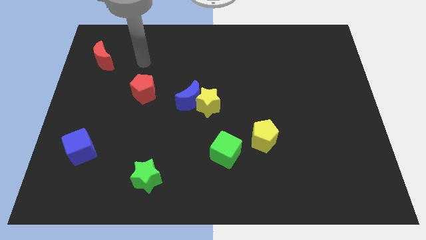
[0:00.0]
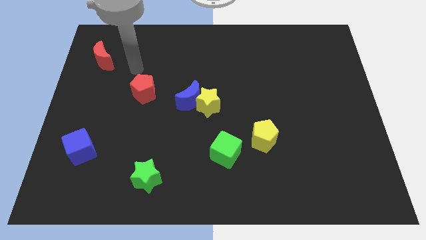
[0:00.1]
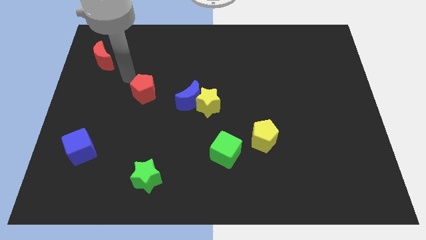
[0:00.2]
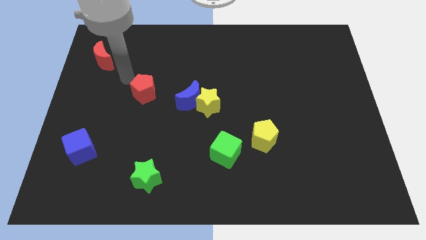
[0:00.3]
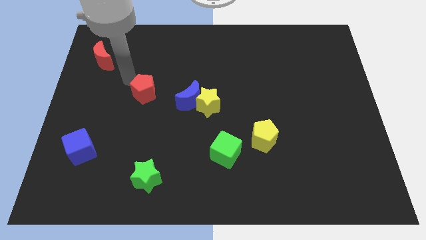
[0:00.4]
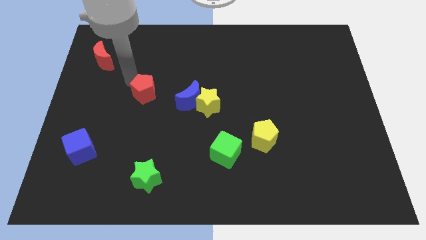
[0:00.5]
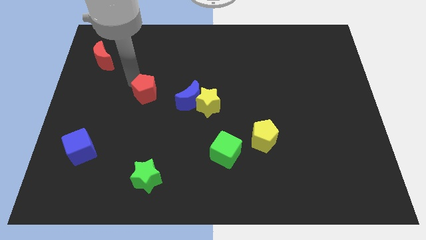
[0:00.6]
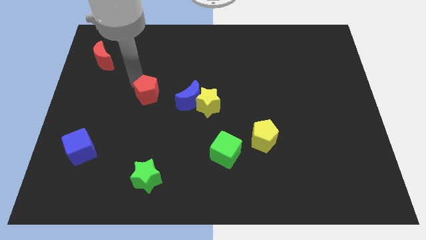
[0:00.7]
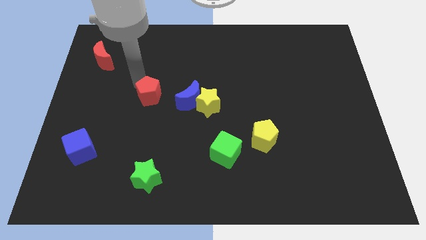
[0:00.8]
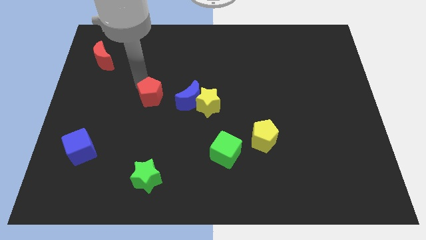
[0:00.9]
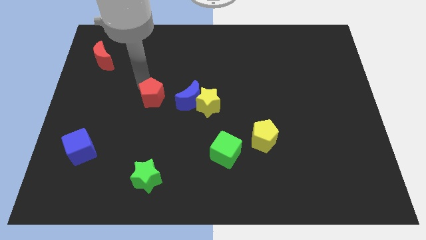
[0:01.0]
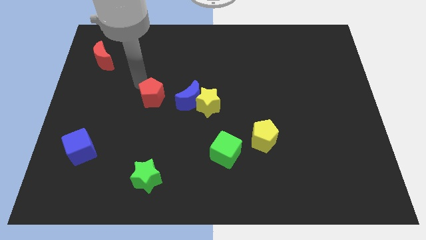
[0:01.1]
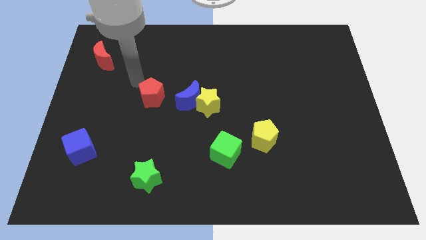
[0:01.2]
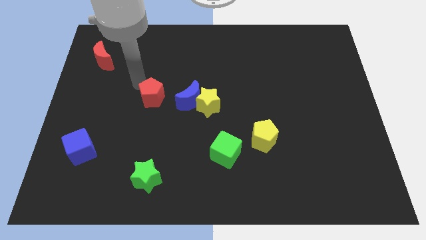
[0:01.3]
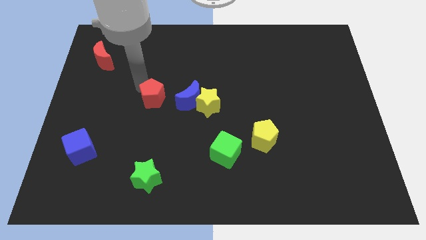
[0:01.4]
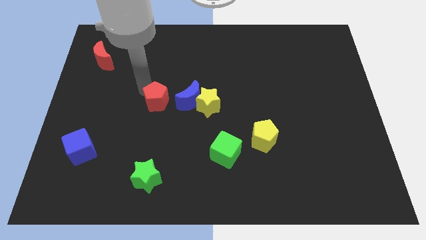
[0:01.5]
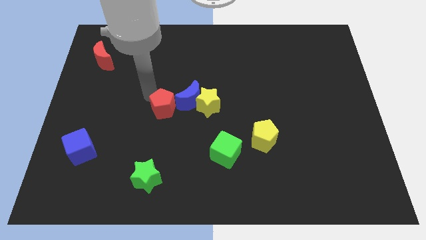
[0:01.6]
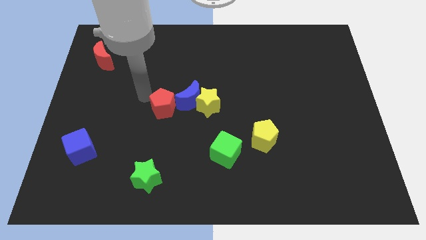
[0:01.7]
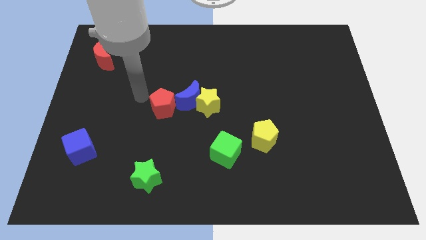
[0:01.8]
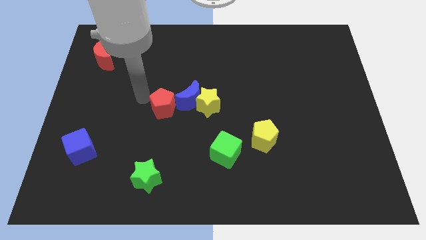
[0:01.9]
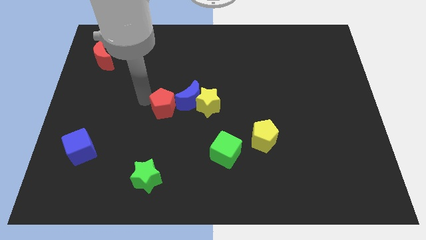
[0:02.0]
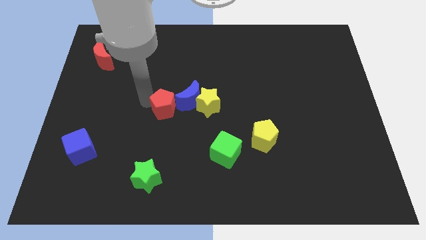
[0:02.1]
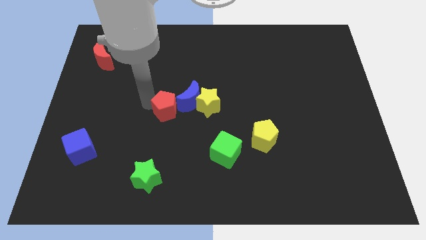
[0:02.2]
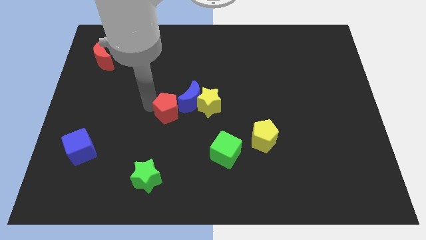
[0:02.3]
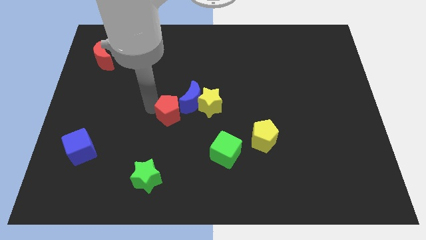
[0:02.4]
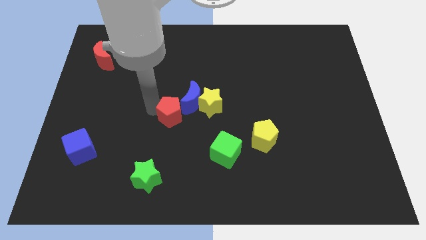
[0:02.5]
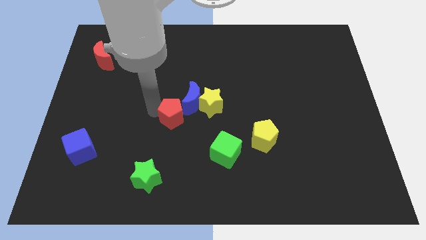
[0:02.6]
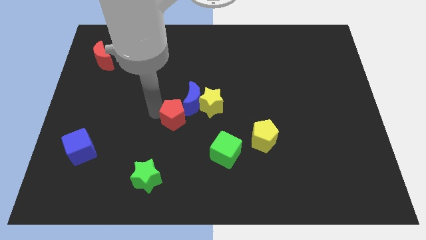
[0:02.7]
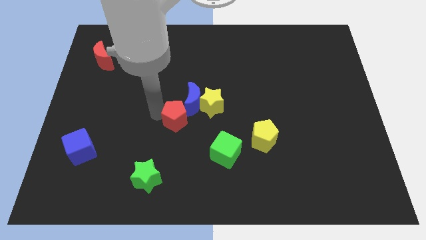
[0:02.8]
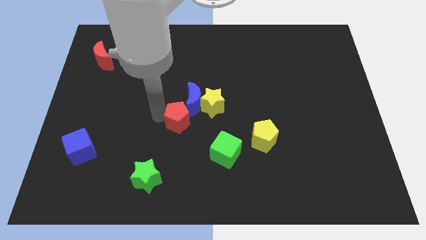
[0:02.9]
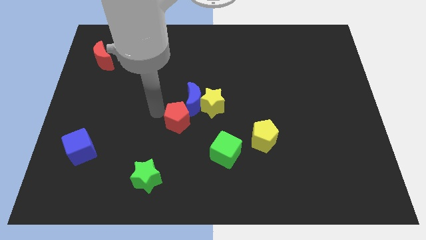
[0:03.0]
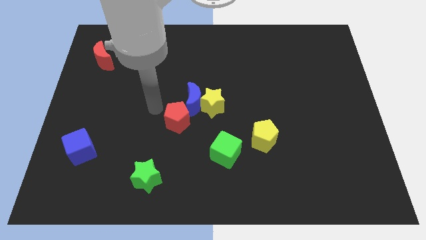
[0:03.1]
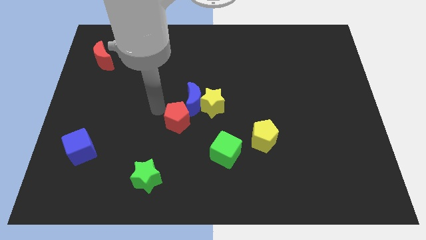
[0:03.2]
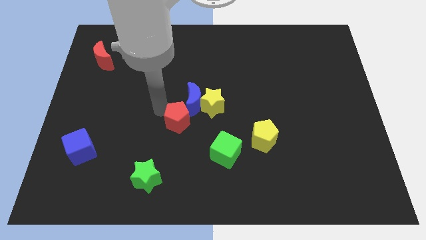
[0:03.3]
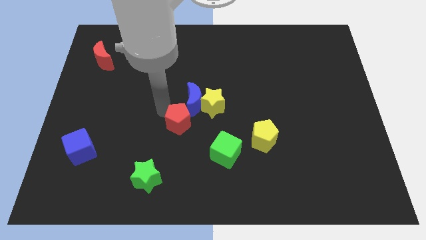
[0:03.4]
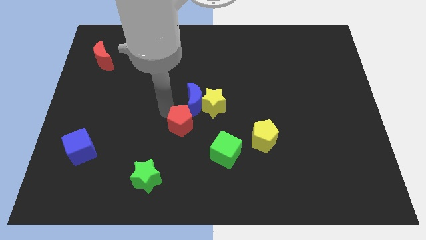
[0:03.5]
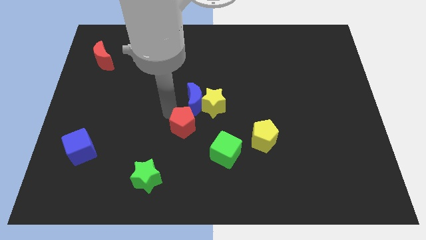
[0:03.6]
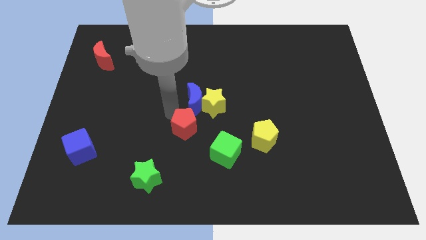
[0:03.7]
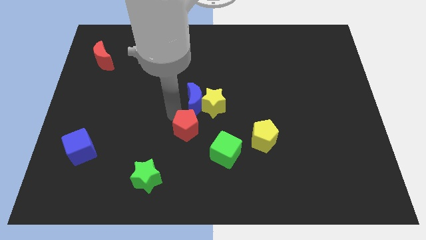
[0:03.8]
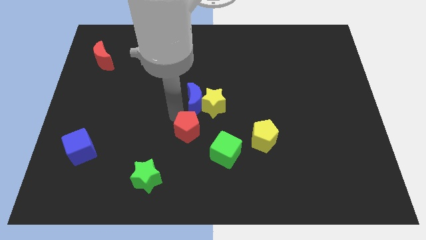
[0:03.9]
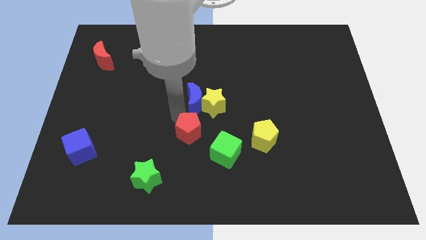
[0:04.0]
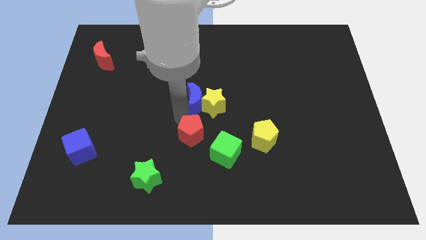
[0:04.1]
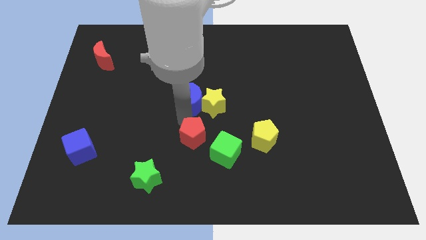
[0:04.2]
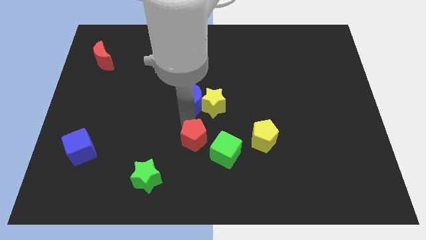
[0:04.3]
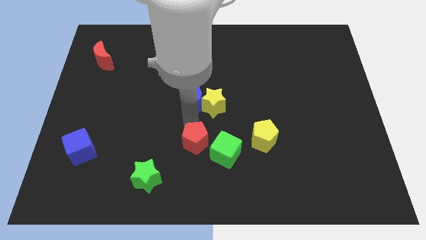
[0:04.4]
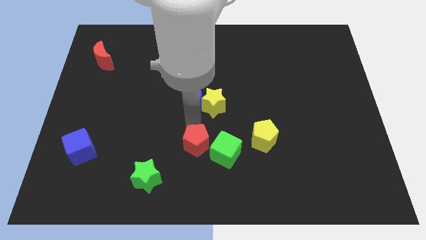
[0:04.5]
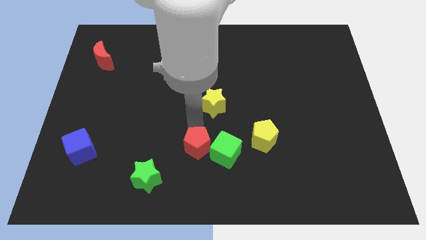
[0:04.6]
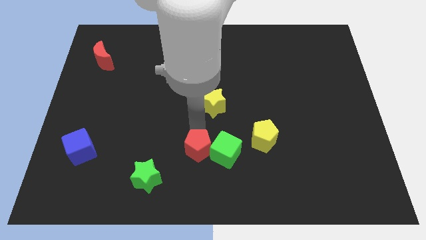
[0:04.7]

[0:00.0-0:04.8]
move the red pentagon towards the green cube

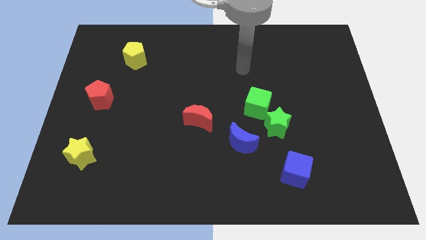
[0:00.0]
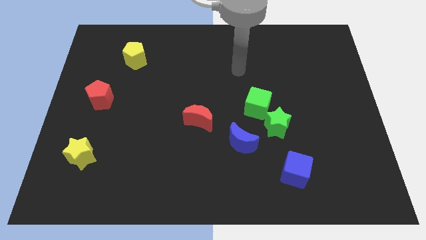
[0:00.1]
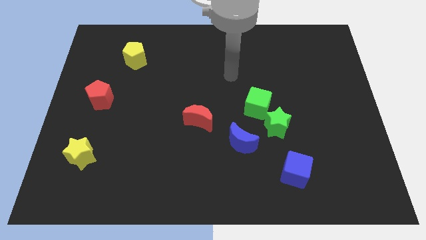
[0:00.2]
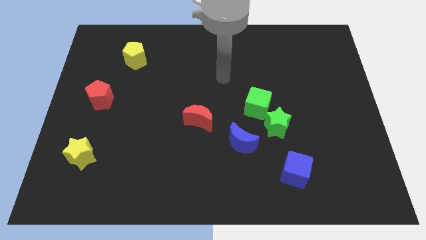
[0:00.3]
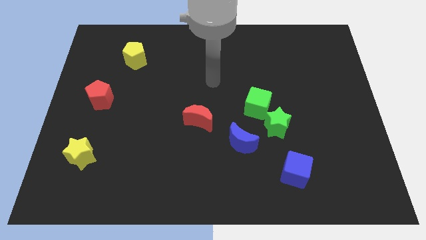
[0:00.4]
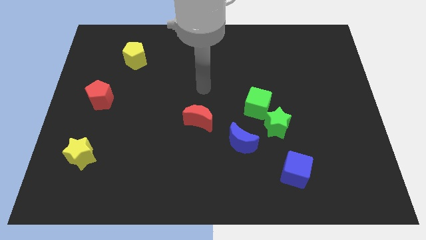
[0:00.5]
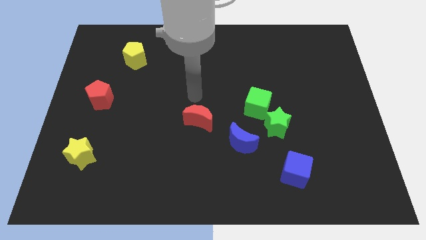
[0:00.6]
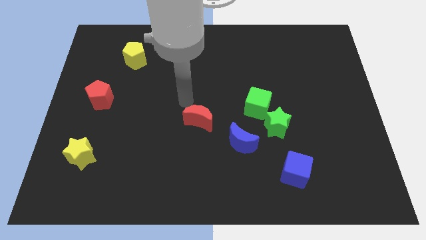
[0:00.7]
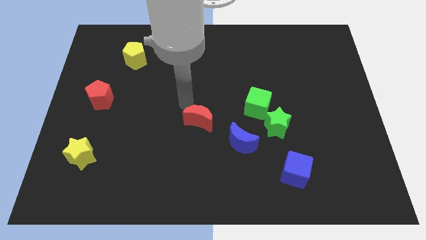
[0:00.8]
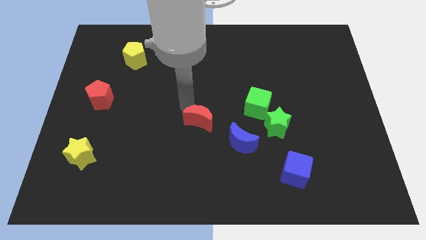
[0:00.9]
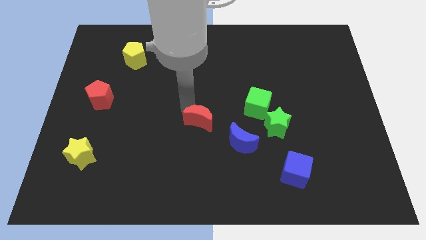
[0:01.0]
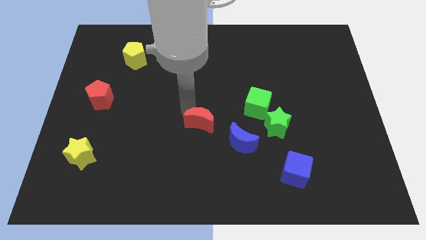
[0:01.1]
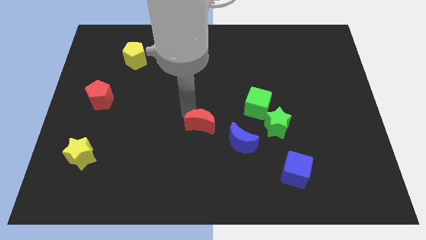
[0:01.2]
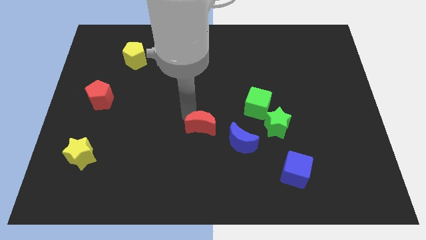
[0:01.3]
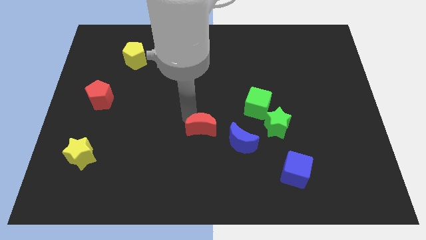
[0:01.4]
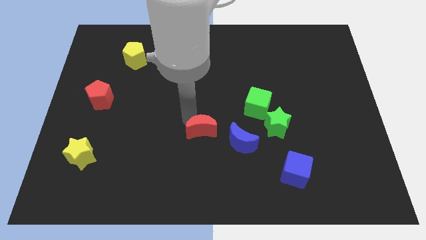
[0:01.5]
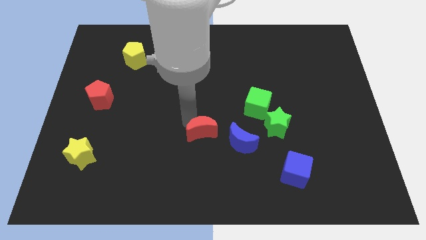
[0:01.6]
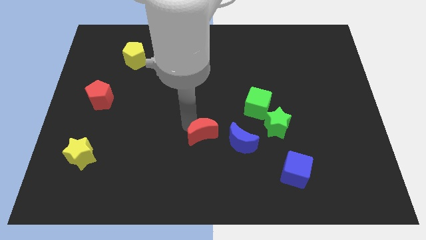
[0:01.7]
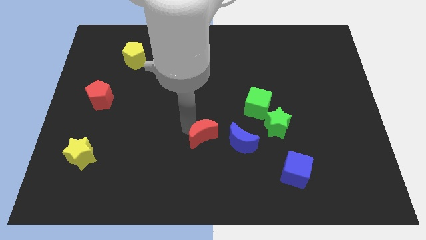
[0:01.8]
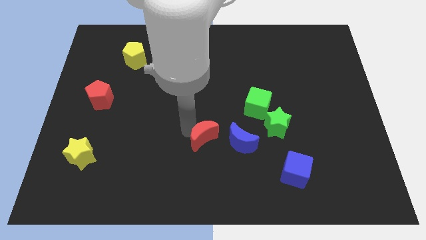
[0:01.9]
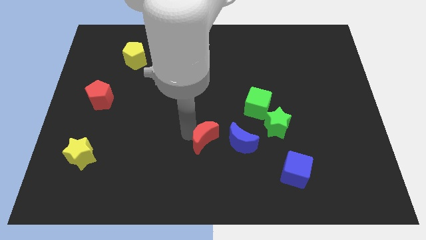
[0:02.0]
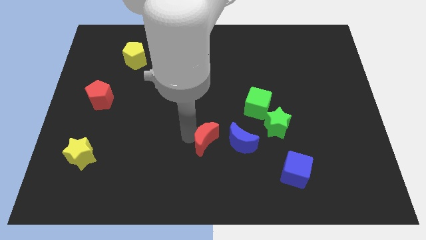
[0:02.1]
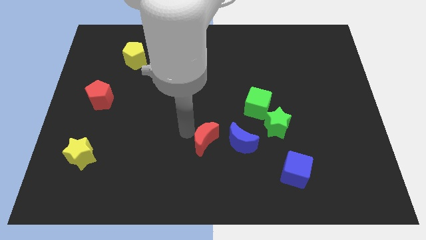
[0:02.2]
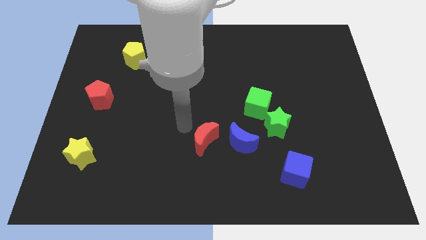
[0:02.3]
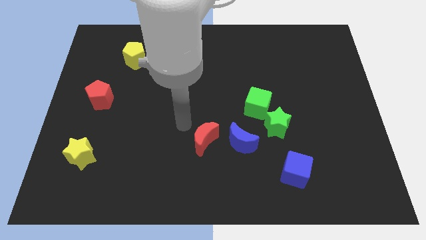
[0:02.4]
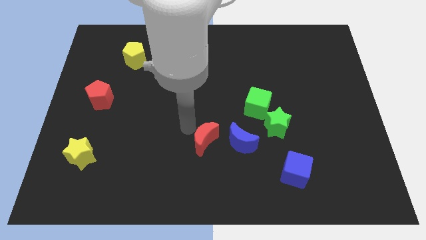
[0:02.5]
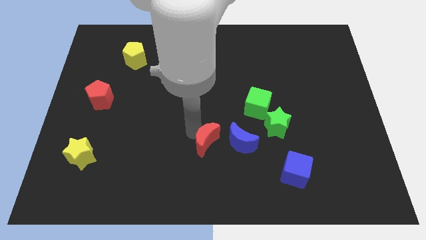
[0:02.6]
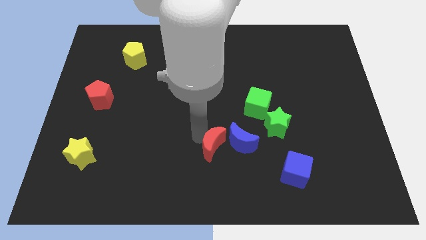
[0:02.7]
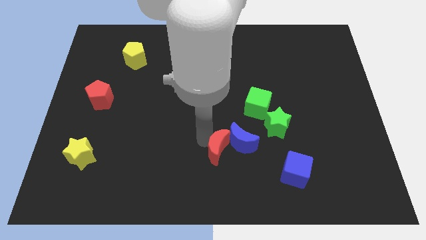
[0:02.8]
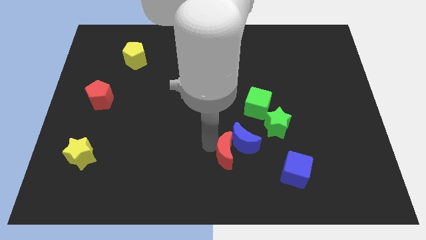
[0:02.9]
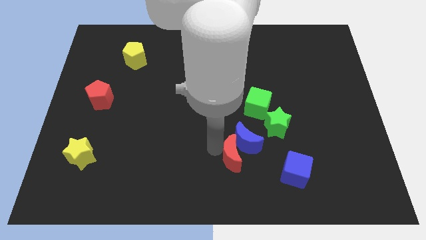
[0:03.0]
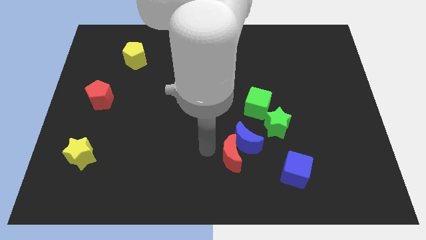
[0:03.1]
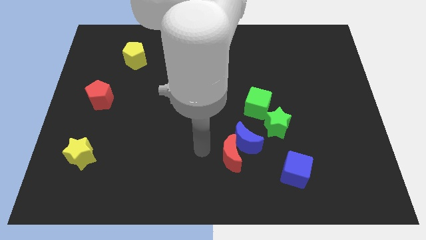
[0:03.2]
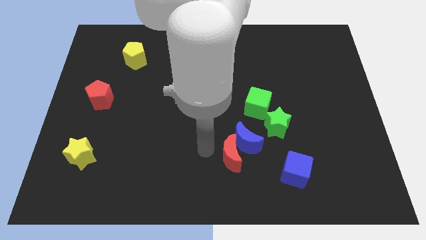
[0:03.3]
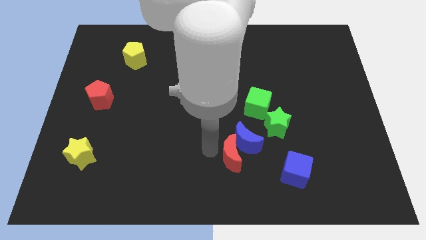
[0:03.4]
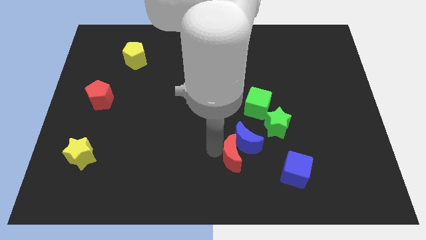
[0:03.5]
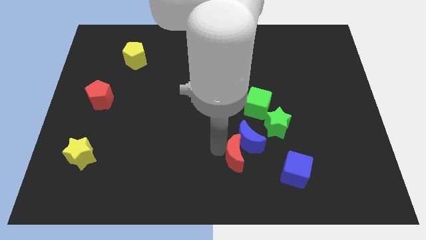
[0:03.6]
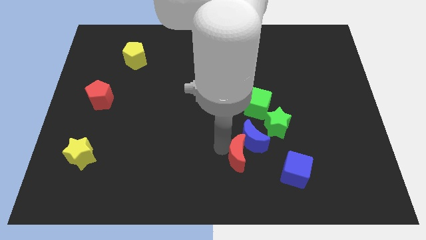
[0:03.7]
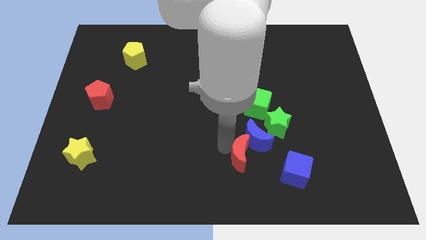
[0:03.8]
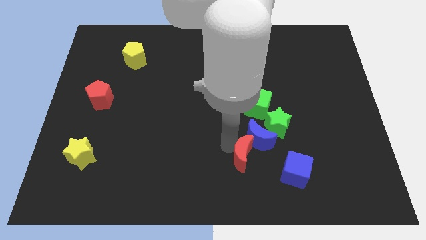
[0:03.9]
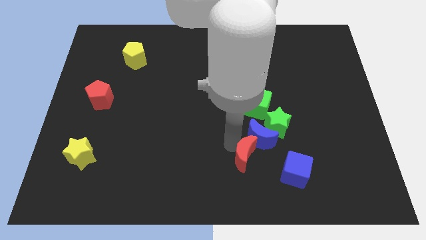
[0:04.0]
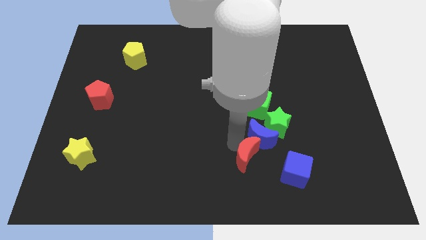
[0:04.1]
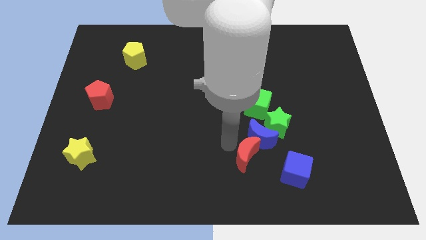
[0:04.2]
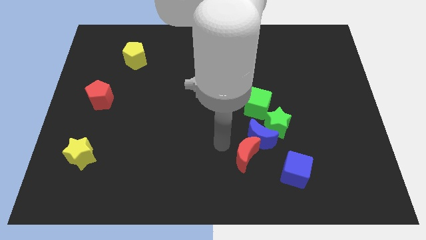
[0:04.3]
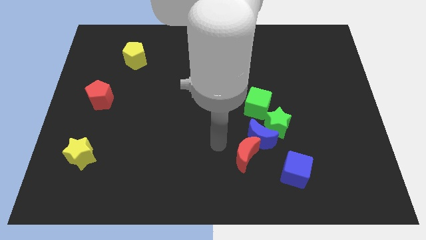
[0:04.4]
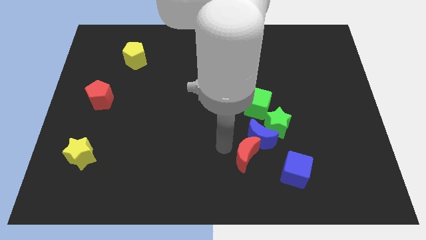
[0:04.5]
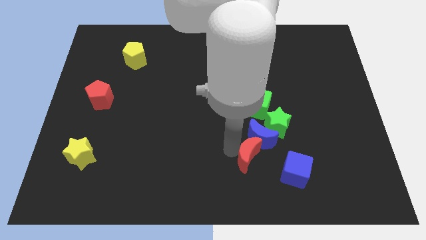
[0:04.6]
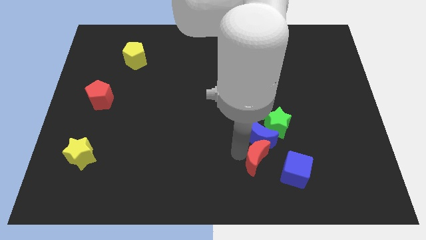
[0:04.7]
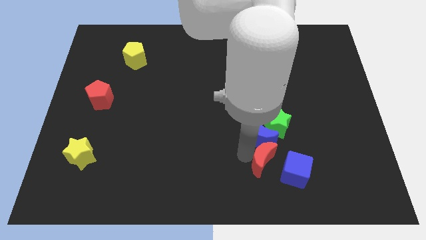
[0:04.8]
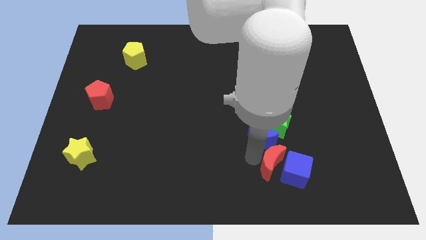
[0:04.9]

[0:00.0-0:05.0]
put the red moon close to the blue cube
